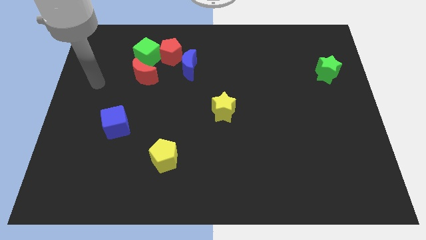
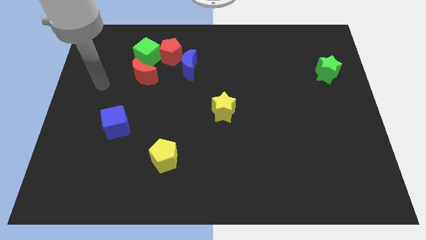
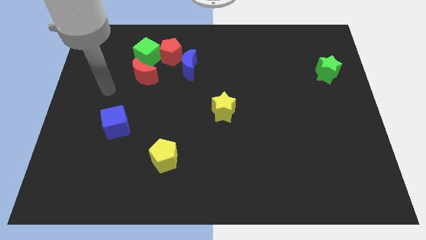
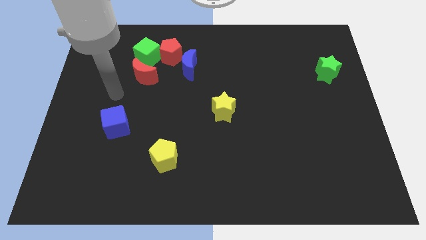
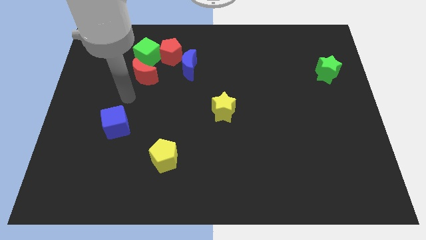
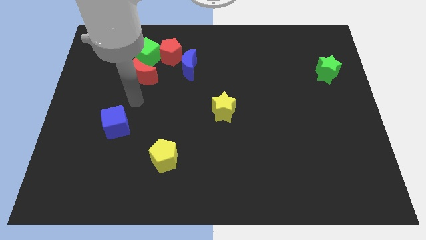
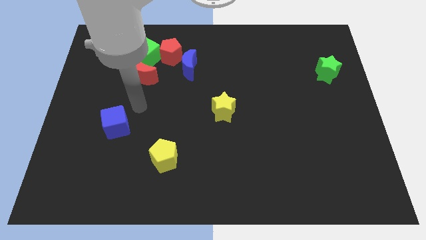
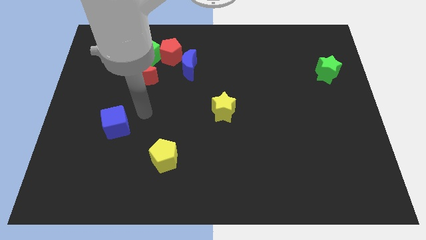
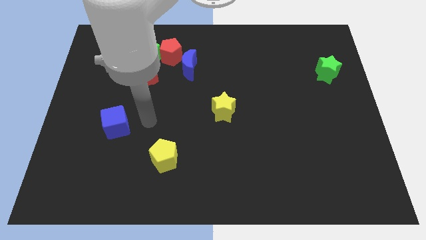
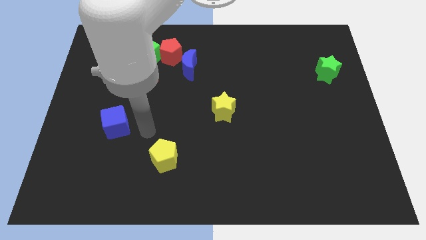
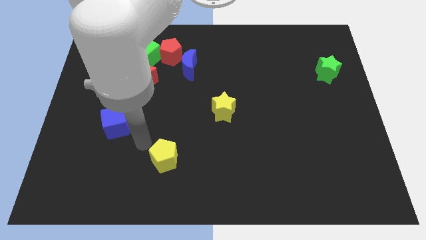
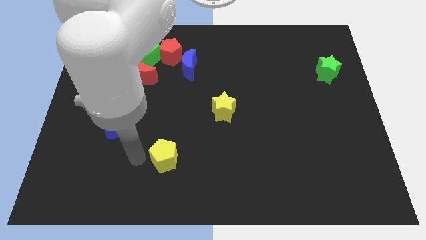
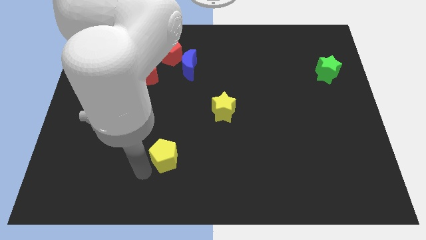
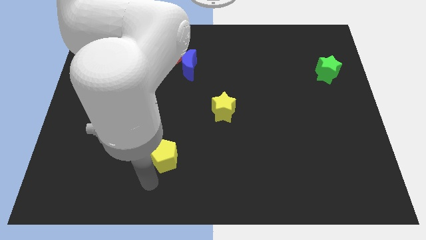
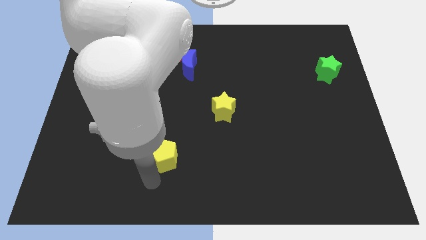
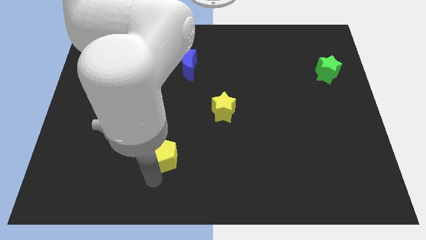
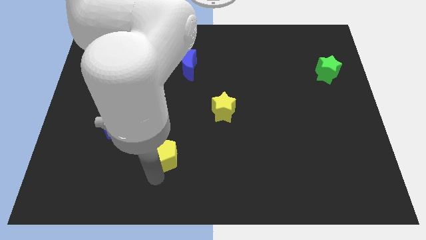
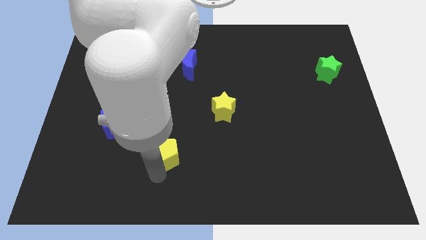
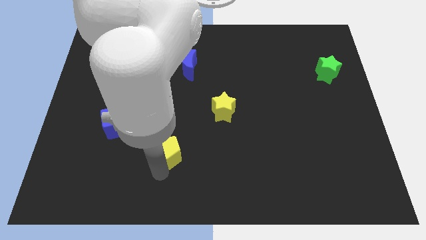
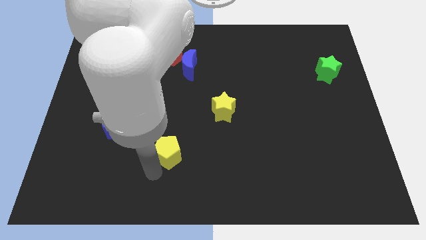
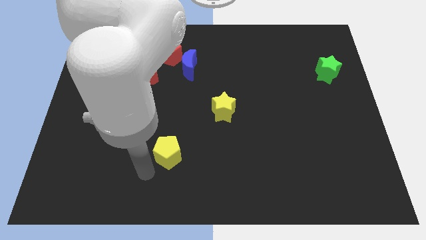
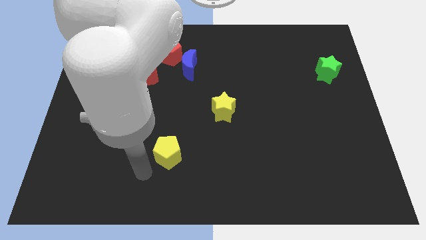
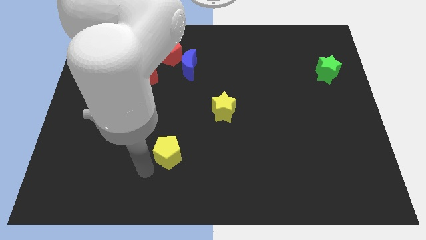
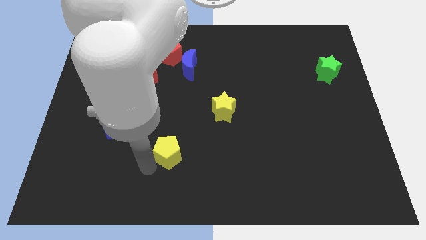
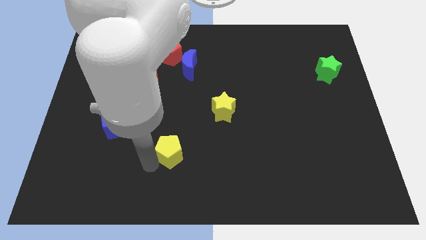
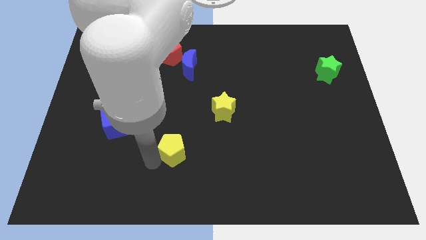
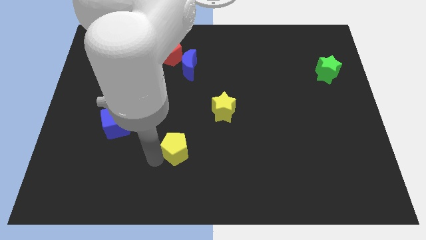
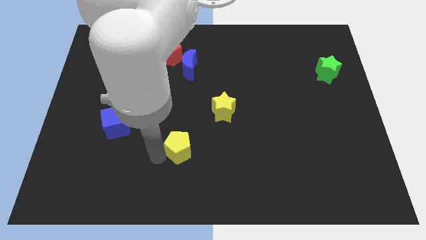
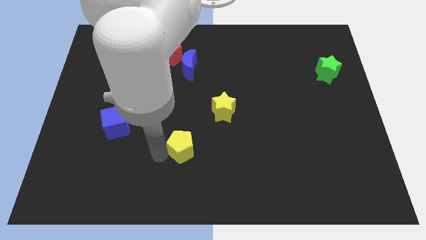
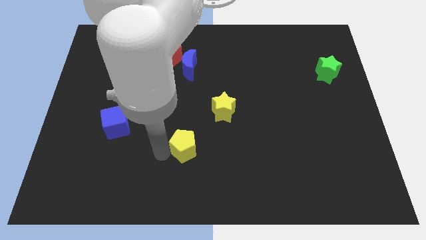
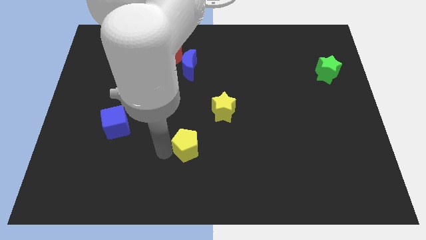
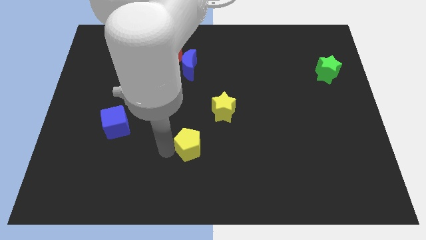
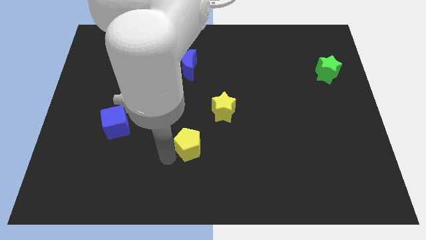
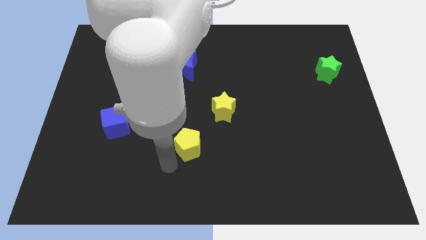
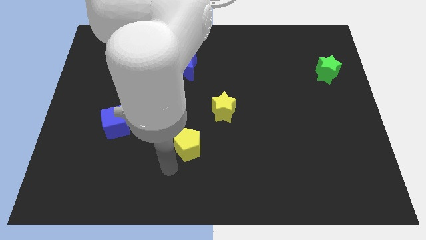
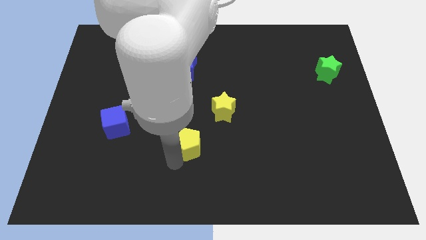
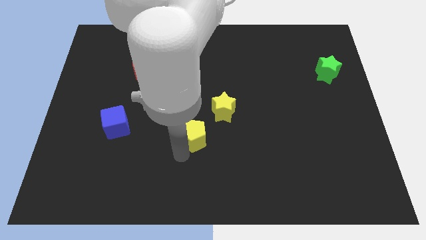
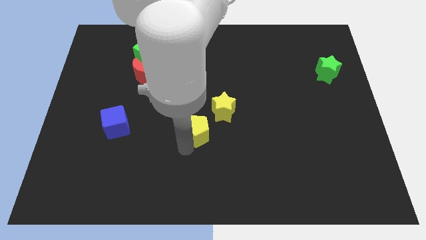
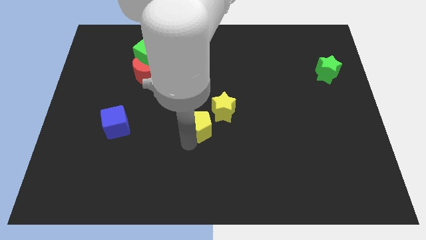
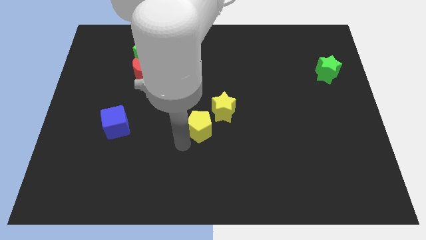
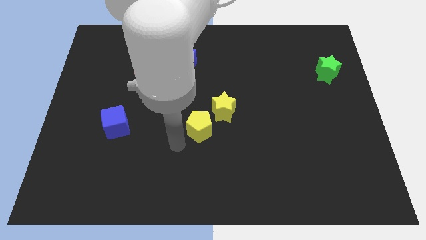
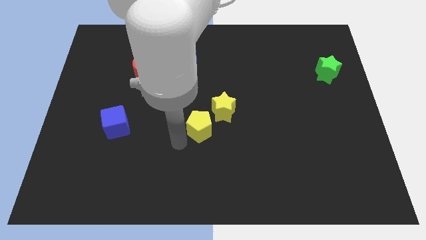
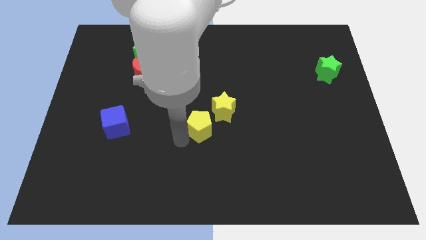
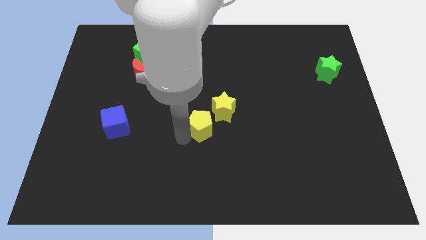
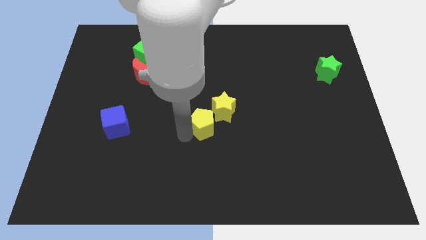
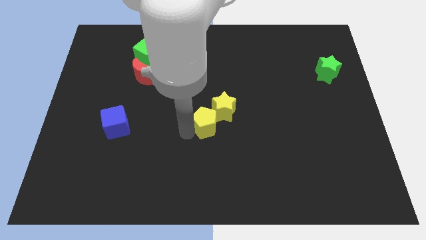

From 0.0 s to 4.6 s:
slide the yellow pentagon next to the yellow star

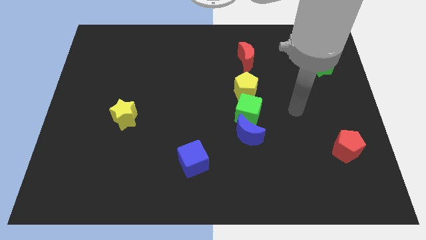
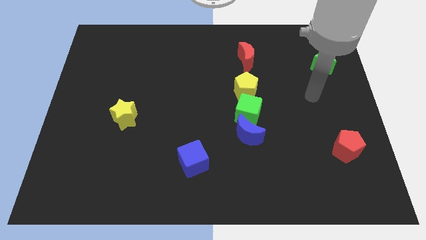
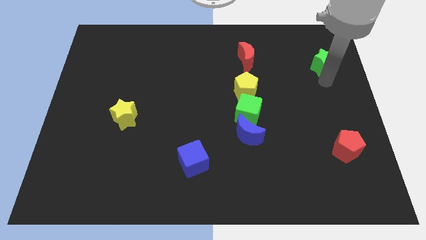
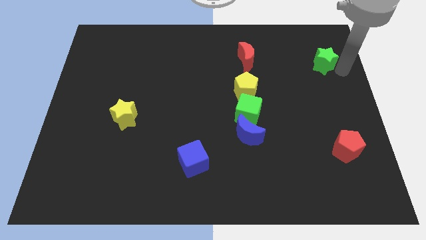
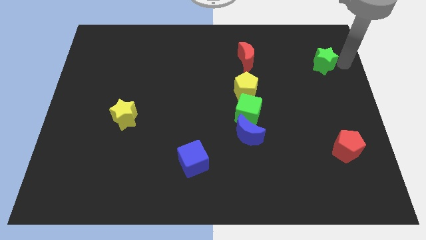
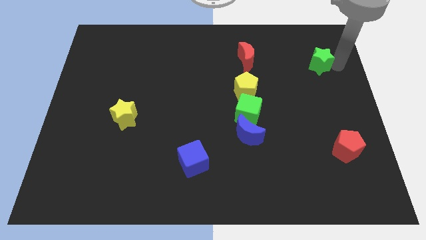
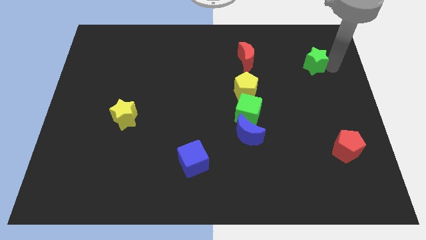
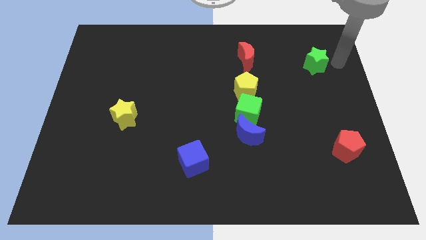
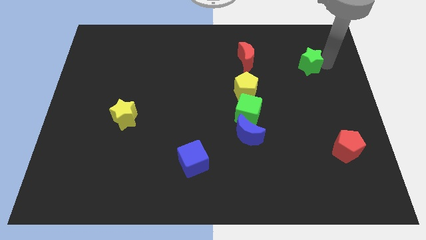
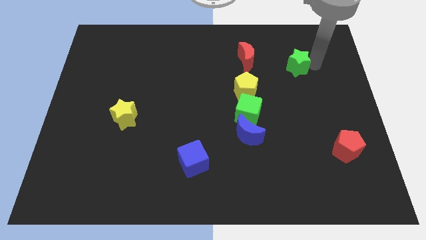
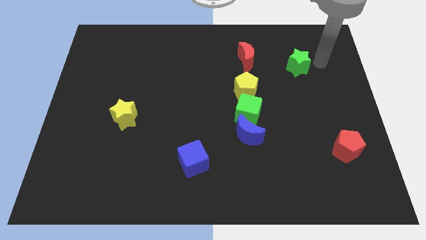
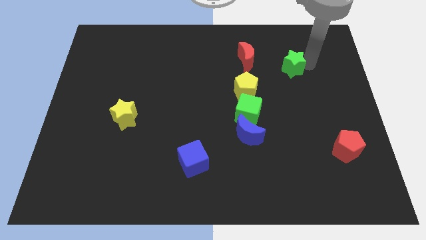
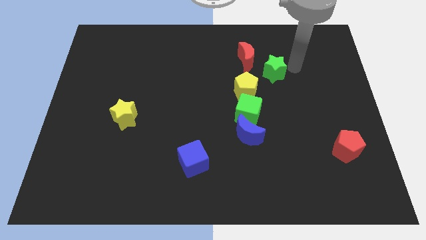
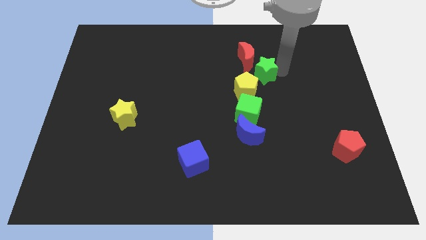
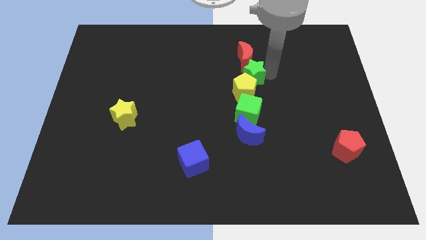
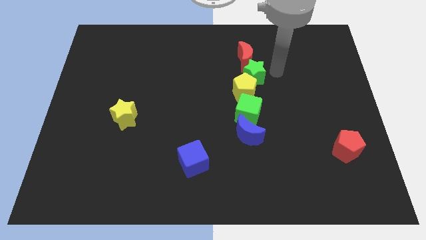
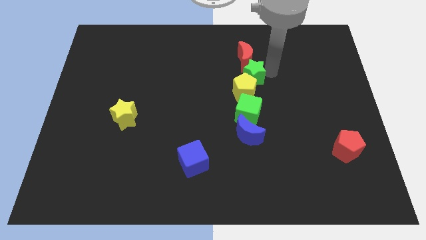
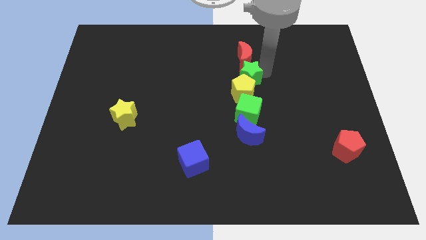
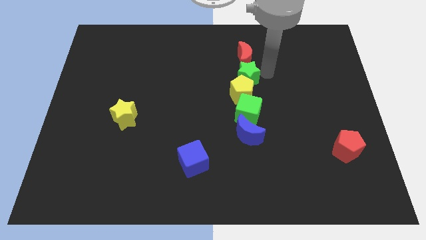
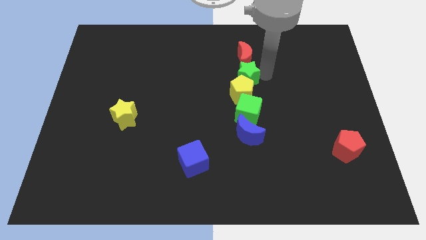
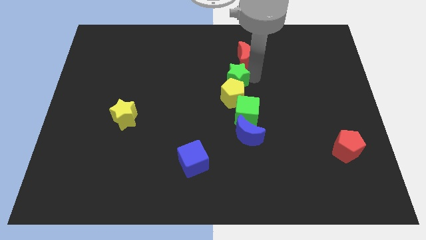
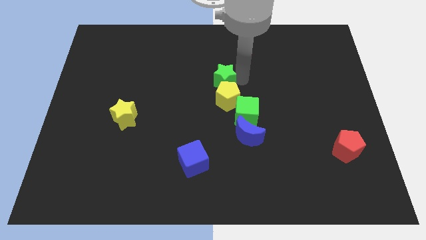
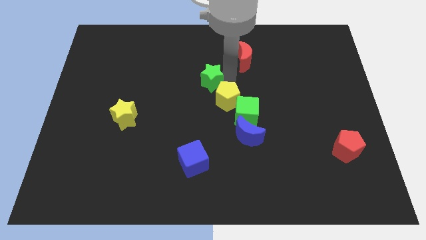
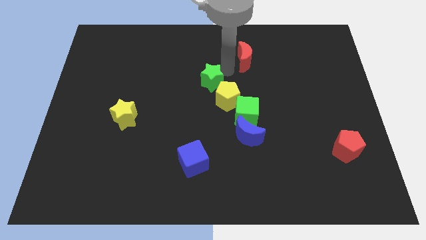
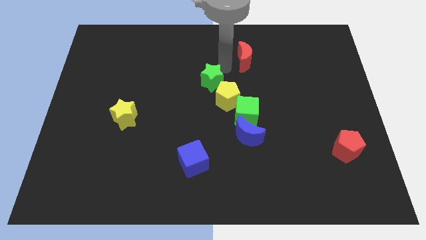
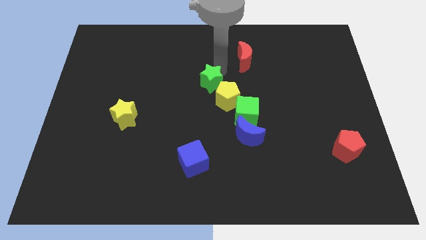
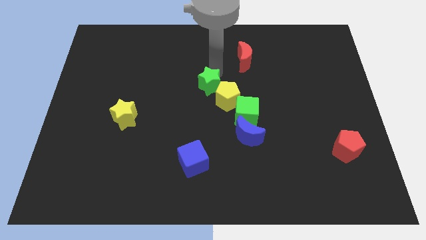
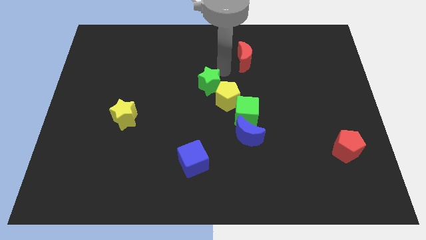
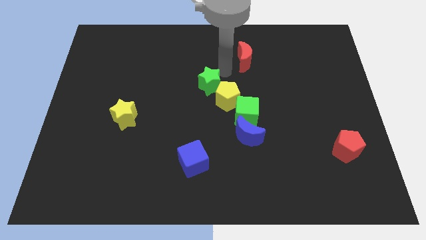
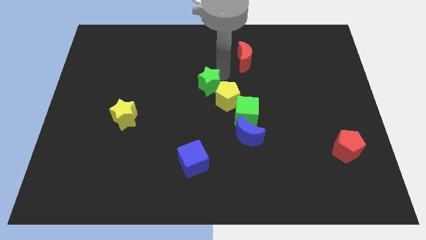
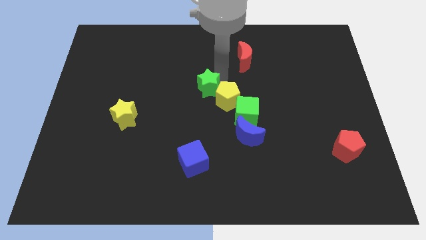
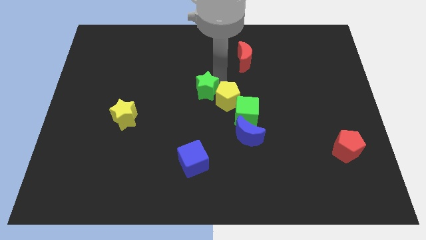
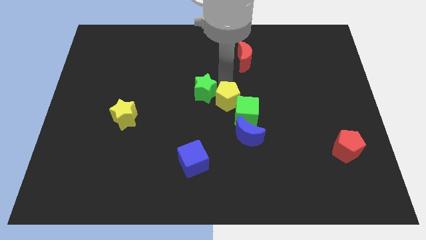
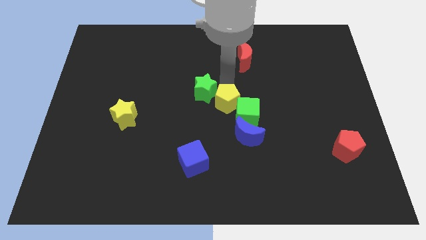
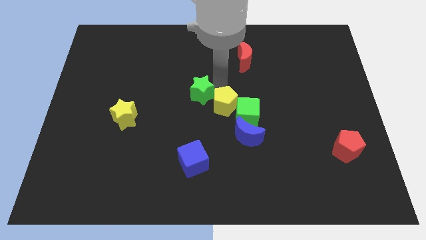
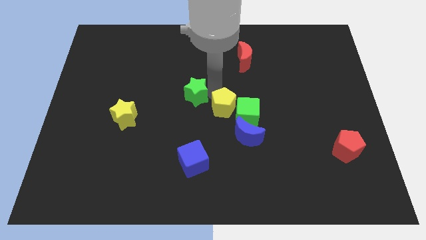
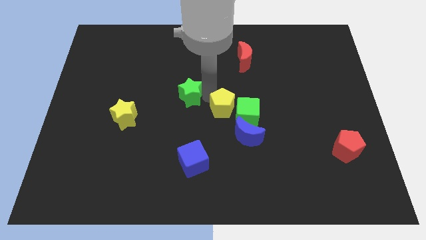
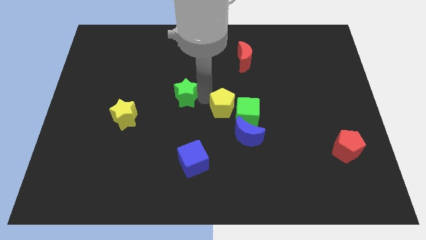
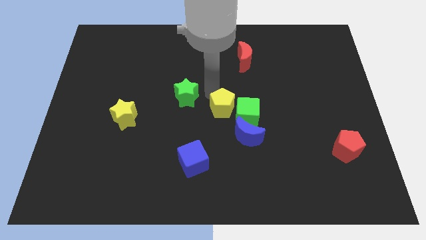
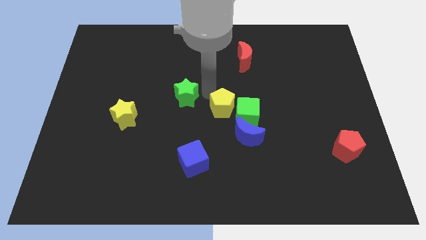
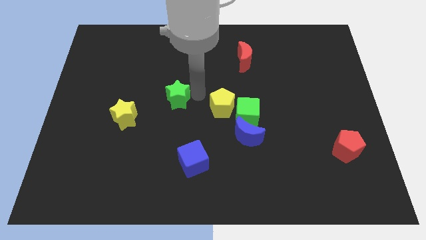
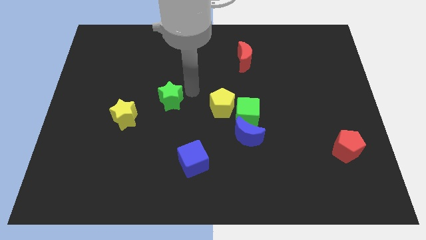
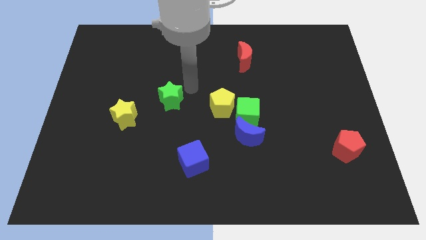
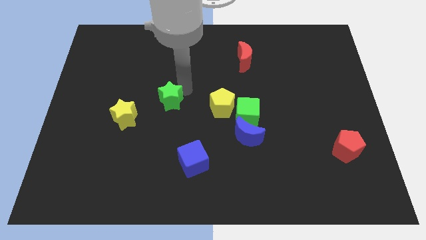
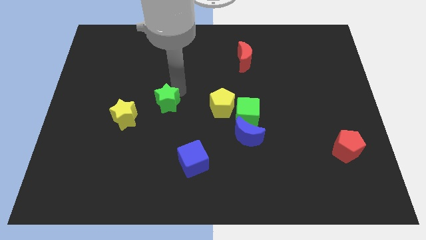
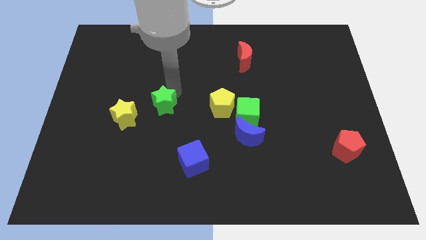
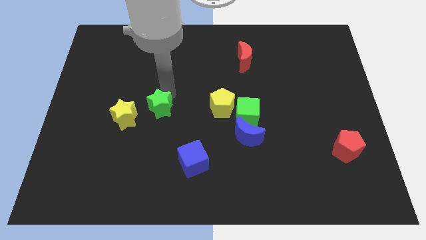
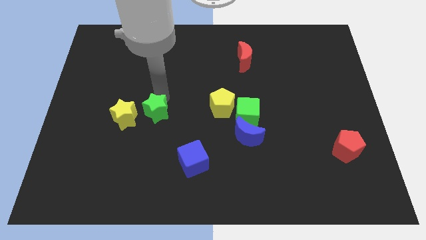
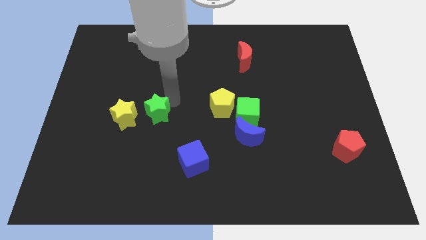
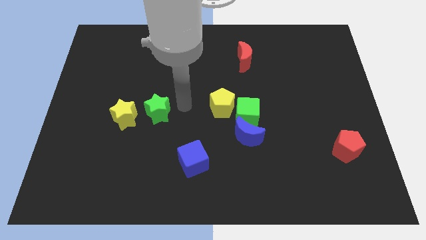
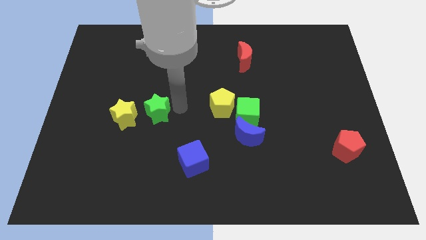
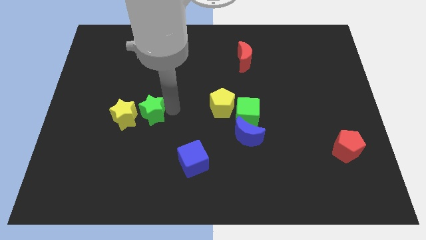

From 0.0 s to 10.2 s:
push the green star to the yellow star
